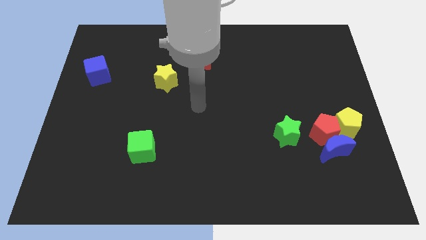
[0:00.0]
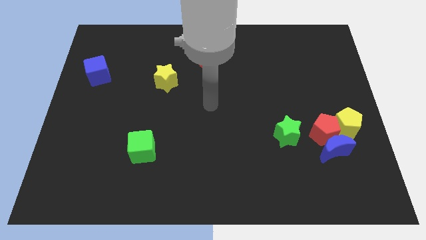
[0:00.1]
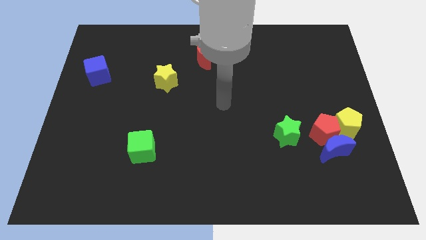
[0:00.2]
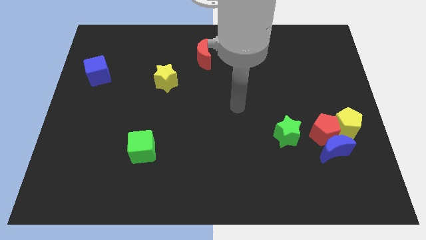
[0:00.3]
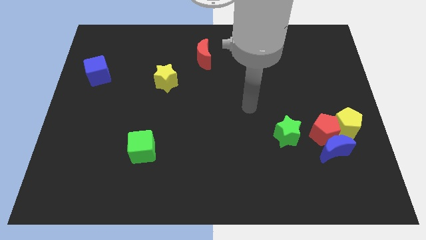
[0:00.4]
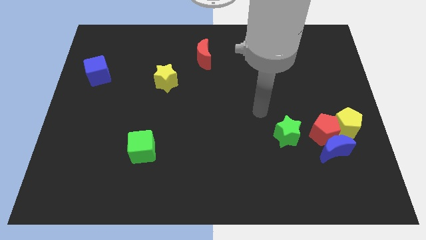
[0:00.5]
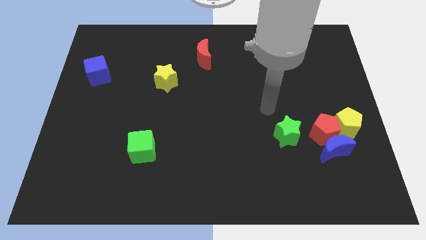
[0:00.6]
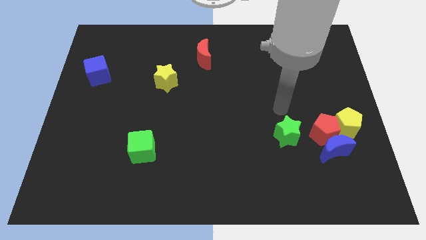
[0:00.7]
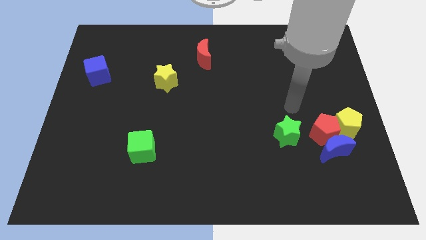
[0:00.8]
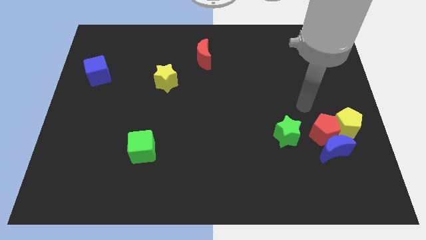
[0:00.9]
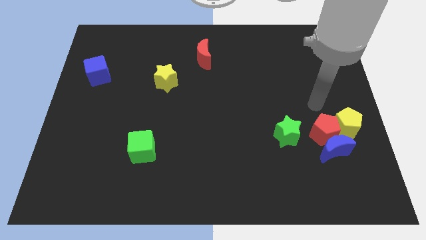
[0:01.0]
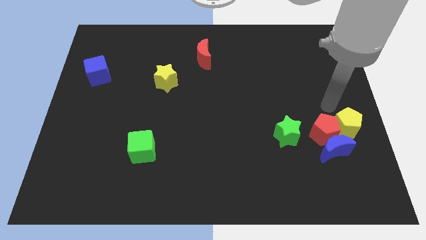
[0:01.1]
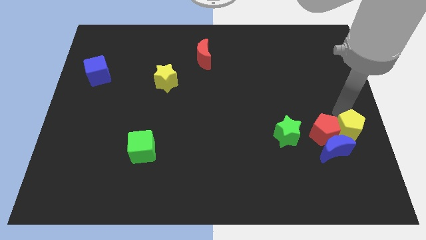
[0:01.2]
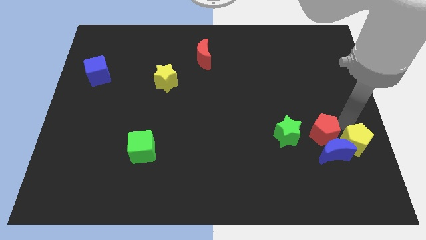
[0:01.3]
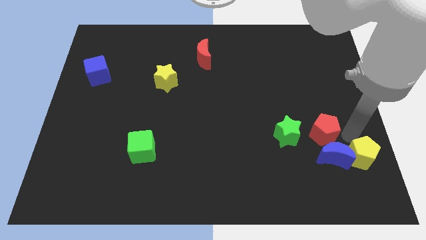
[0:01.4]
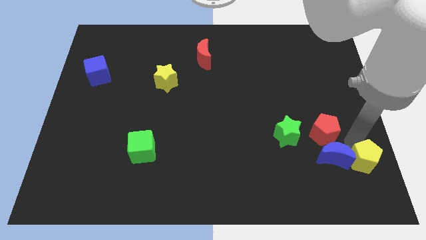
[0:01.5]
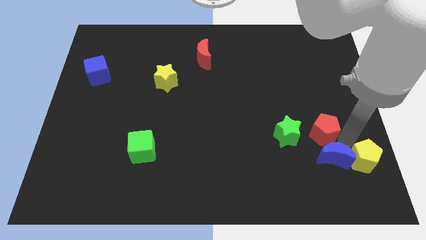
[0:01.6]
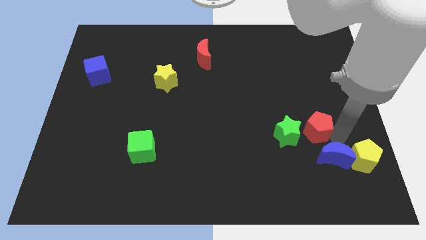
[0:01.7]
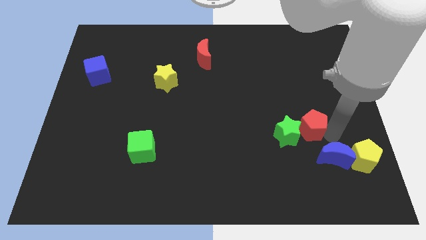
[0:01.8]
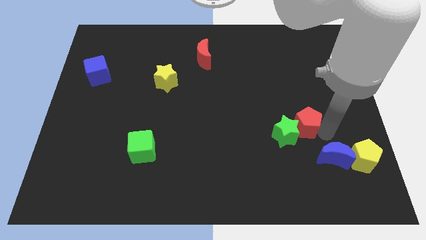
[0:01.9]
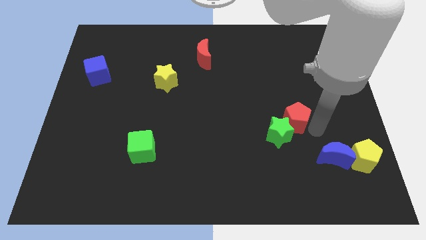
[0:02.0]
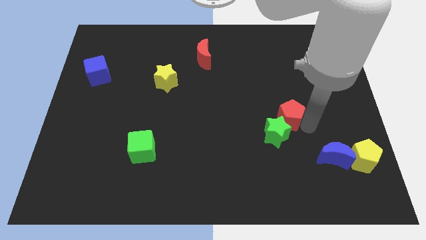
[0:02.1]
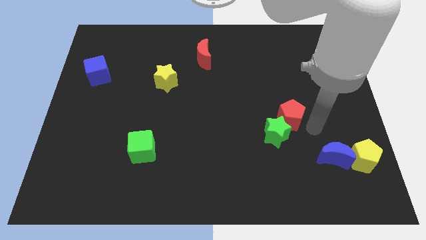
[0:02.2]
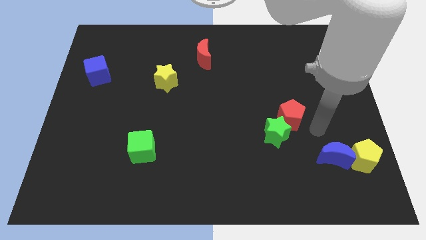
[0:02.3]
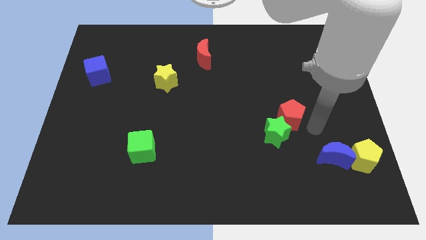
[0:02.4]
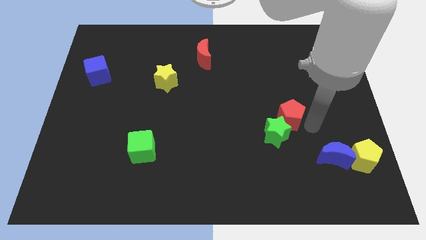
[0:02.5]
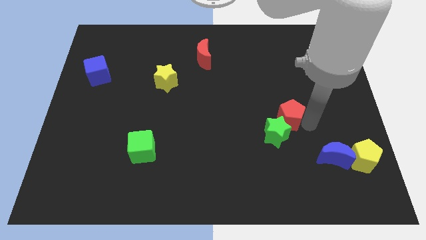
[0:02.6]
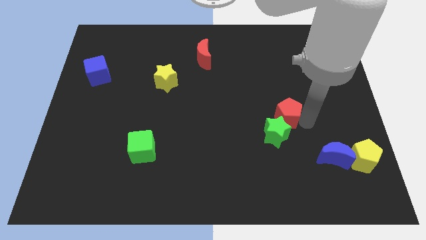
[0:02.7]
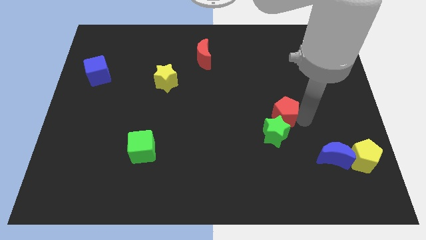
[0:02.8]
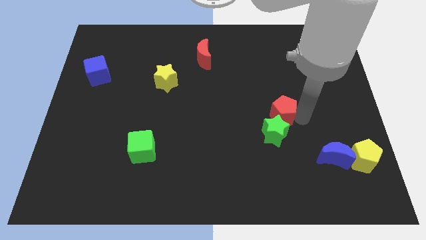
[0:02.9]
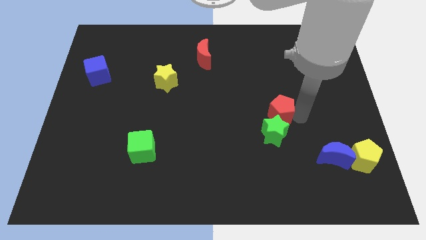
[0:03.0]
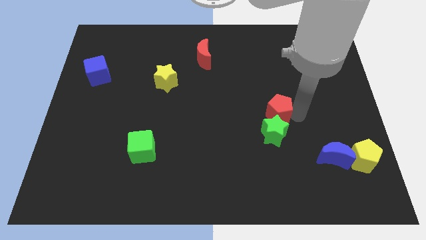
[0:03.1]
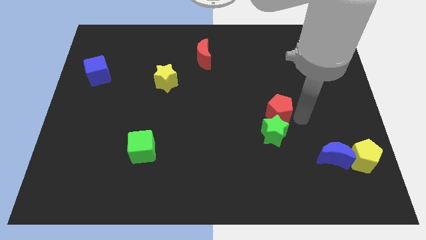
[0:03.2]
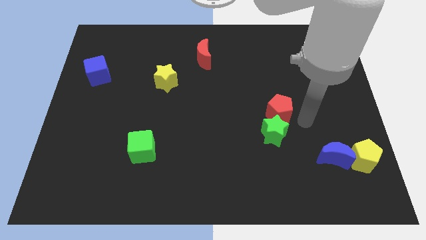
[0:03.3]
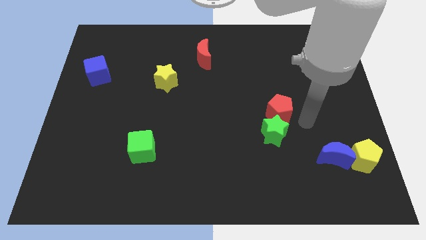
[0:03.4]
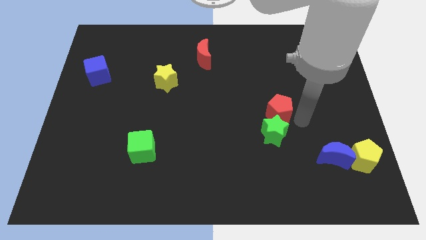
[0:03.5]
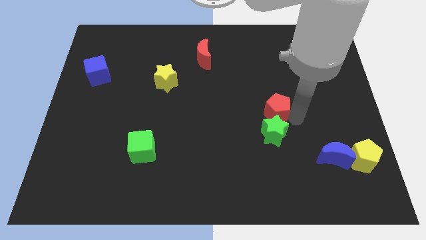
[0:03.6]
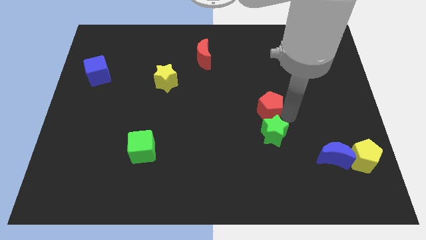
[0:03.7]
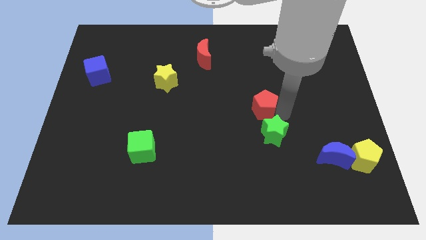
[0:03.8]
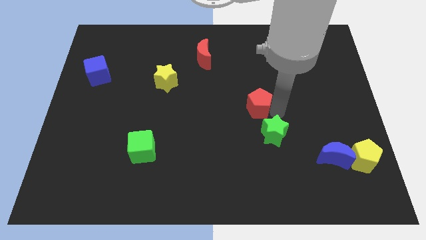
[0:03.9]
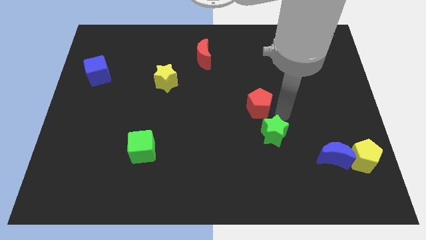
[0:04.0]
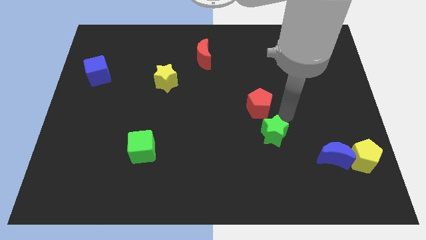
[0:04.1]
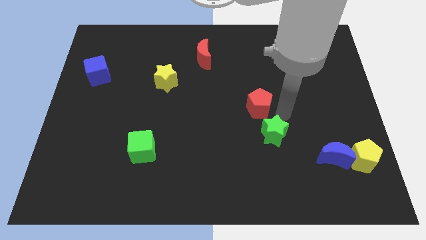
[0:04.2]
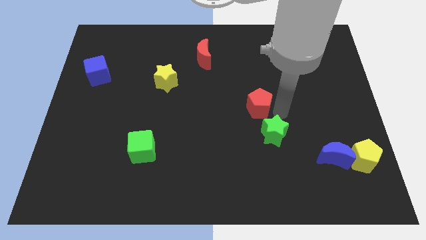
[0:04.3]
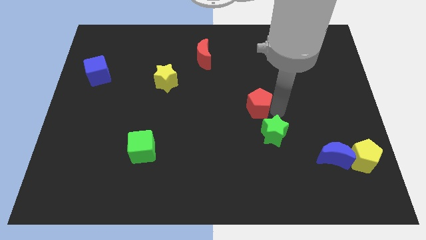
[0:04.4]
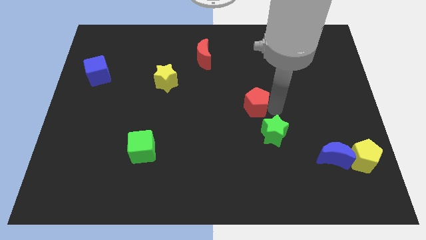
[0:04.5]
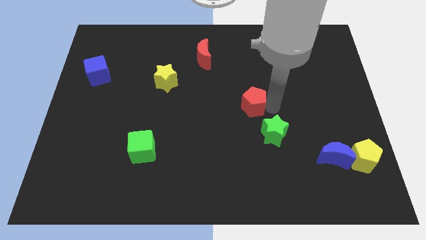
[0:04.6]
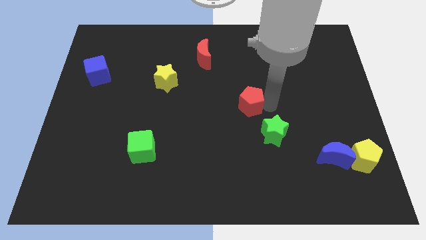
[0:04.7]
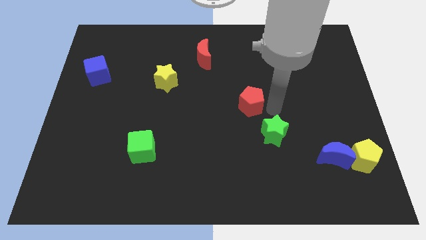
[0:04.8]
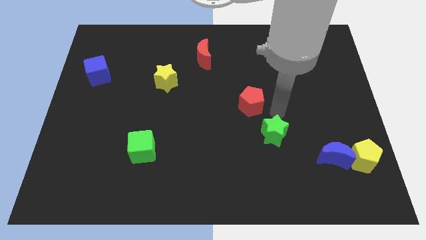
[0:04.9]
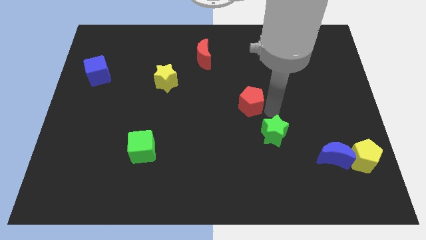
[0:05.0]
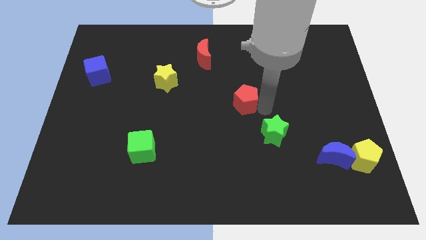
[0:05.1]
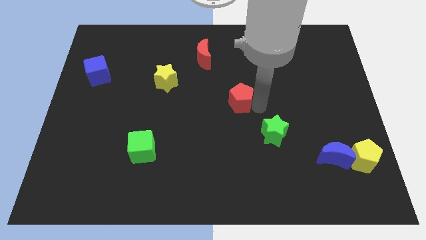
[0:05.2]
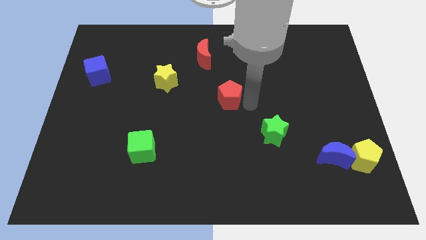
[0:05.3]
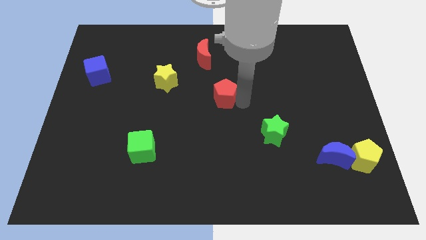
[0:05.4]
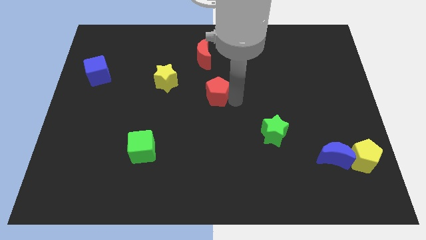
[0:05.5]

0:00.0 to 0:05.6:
put the red pentagon to the bottom side of the red moon

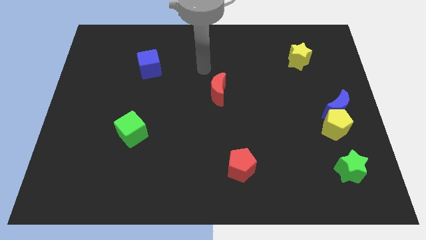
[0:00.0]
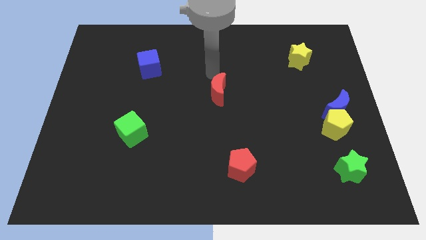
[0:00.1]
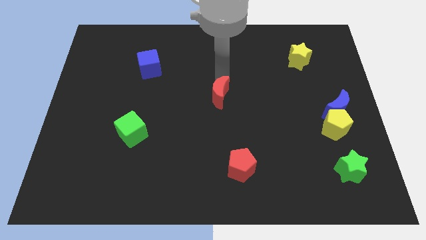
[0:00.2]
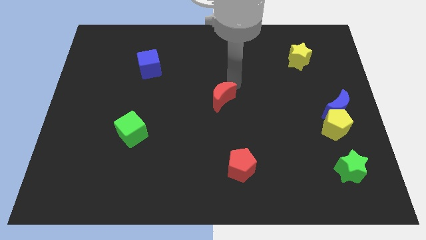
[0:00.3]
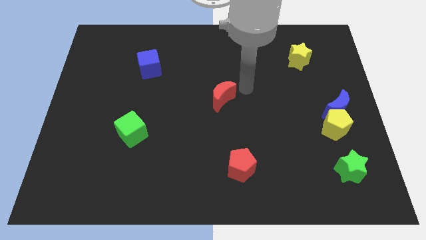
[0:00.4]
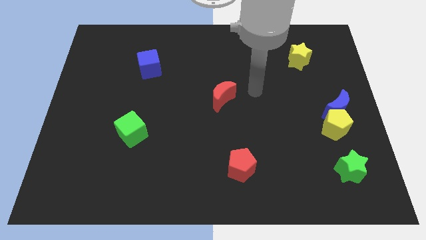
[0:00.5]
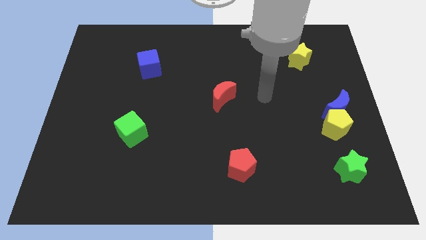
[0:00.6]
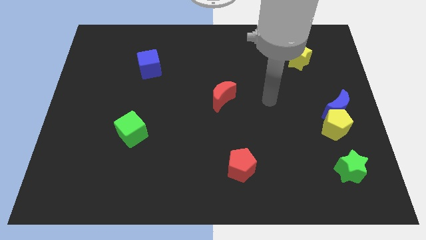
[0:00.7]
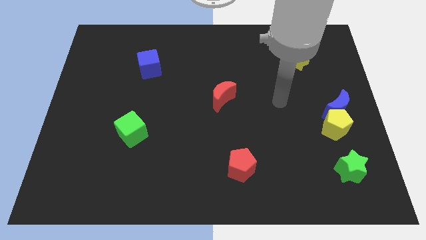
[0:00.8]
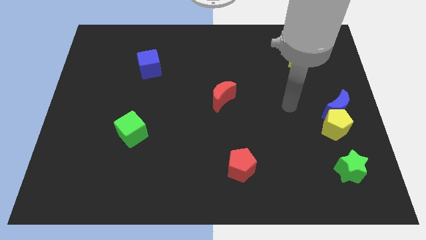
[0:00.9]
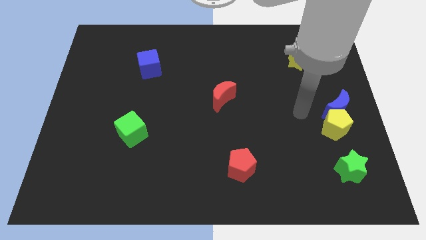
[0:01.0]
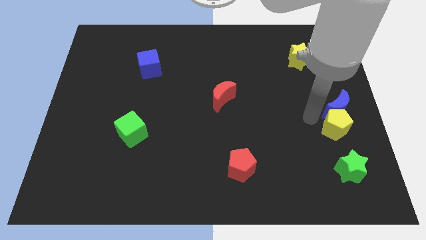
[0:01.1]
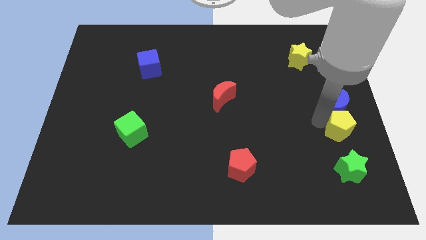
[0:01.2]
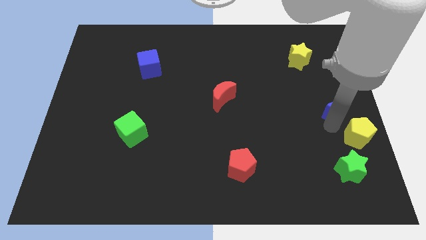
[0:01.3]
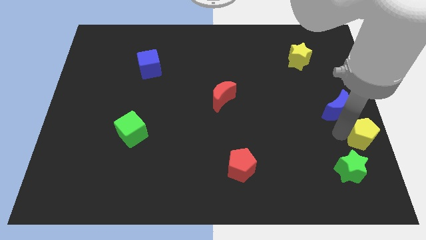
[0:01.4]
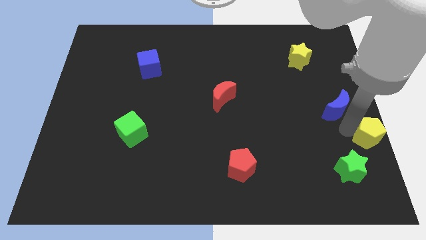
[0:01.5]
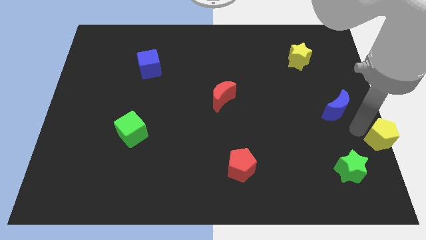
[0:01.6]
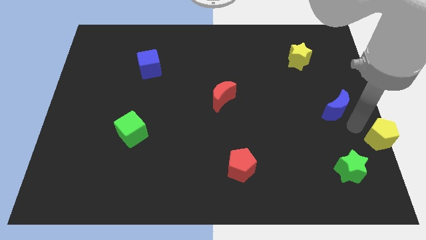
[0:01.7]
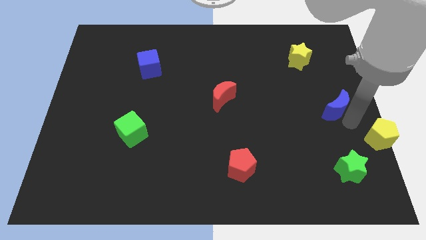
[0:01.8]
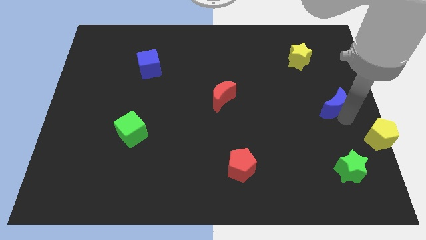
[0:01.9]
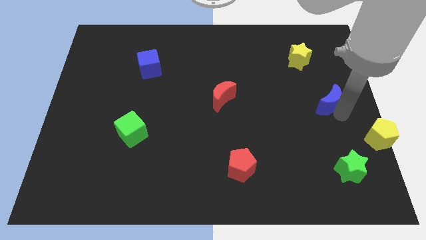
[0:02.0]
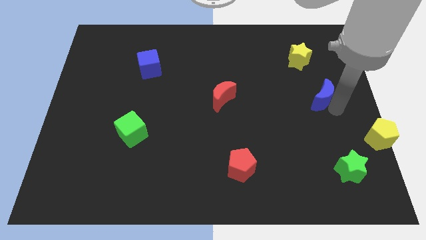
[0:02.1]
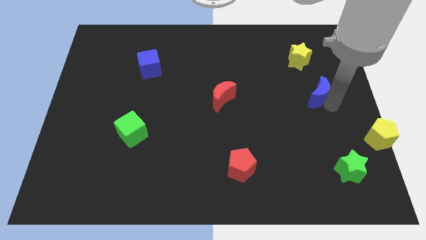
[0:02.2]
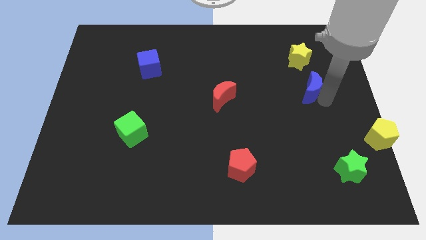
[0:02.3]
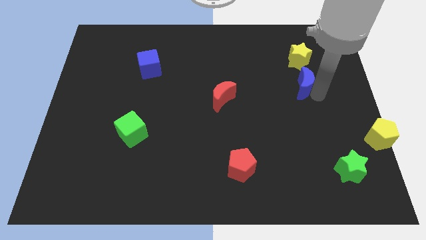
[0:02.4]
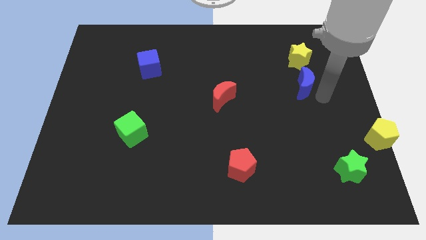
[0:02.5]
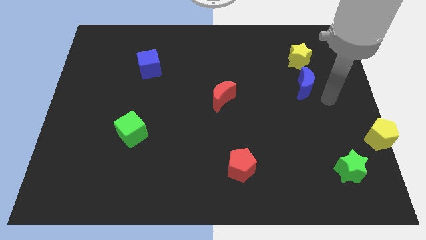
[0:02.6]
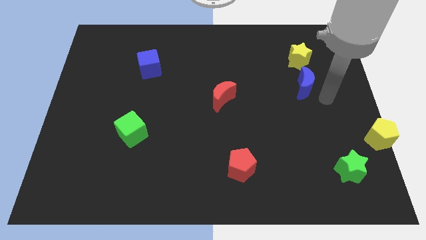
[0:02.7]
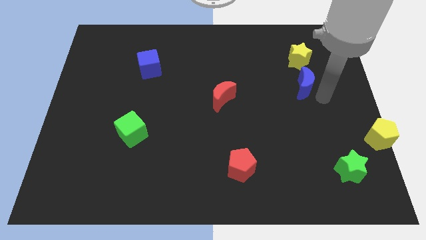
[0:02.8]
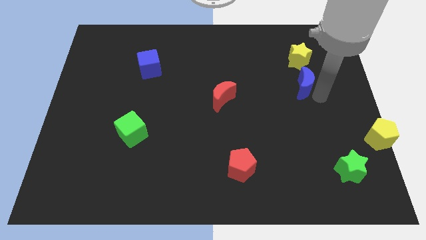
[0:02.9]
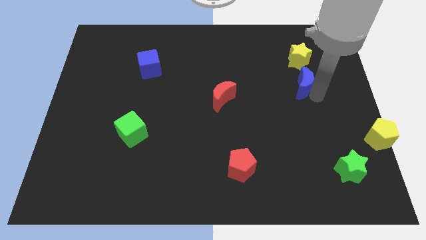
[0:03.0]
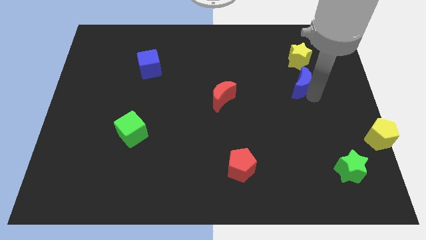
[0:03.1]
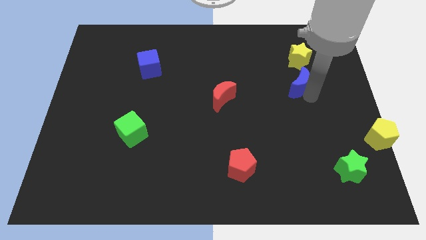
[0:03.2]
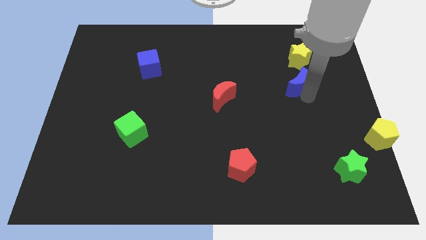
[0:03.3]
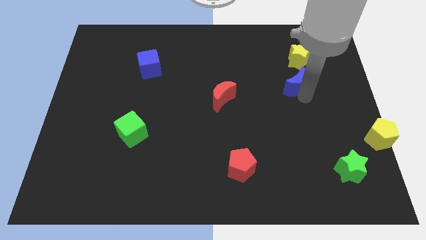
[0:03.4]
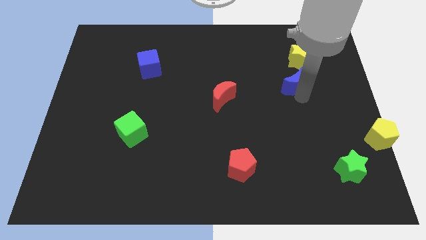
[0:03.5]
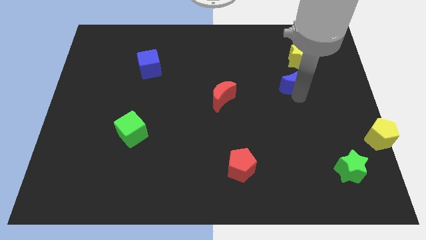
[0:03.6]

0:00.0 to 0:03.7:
push the blue moon to the bottom left side of the yellow star
